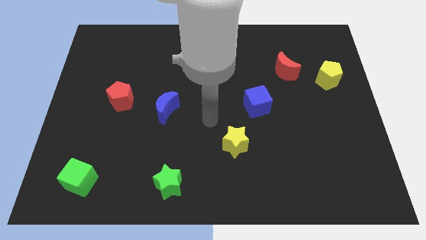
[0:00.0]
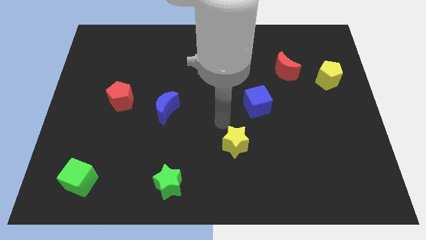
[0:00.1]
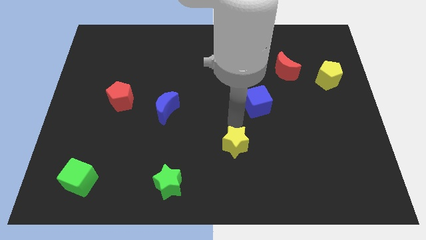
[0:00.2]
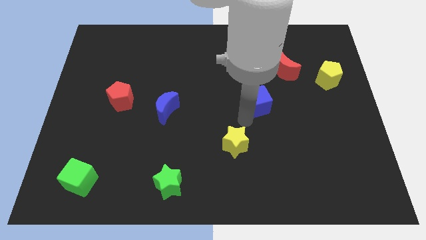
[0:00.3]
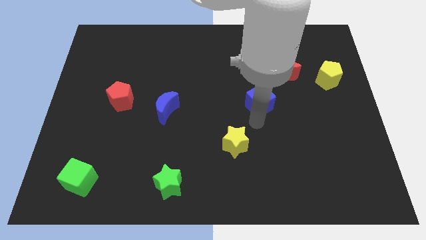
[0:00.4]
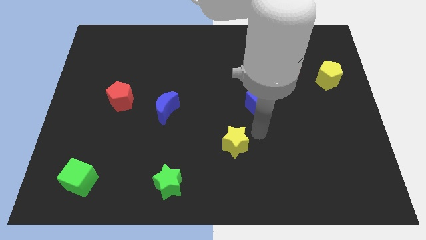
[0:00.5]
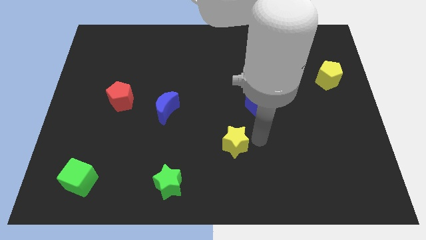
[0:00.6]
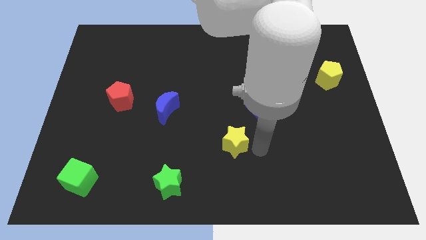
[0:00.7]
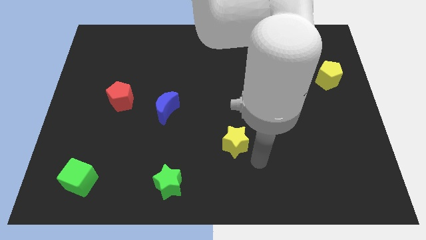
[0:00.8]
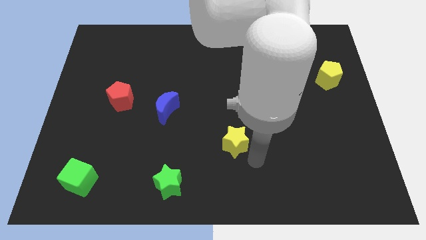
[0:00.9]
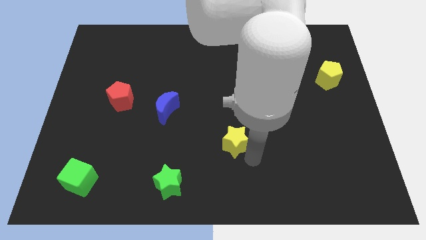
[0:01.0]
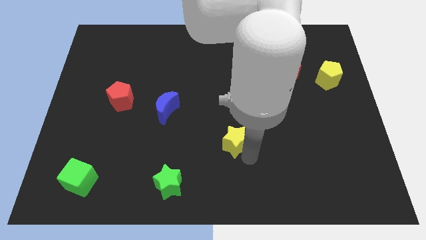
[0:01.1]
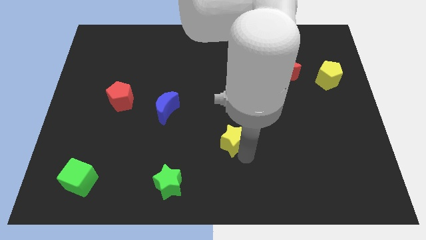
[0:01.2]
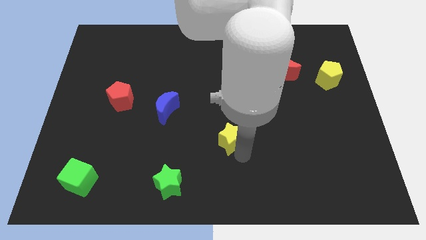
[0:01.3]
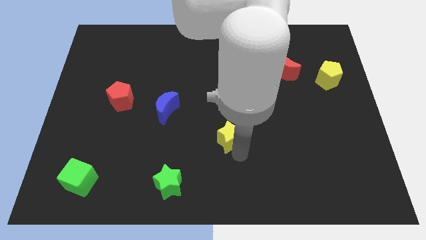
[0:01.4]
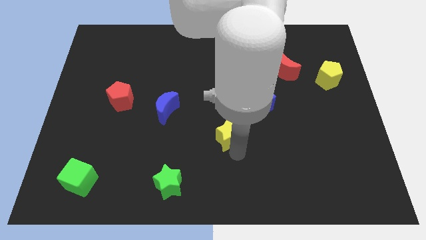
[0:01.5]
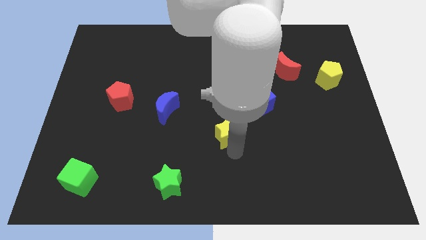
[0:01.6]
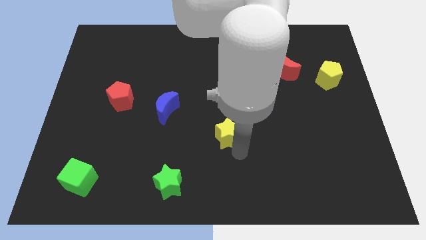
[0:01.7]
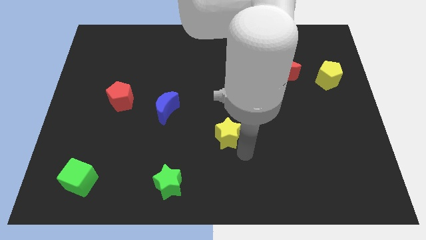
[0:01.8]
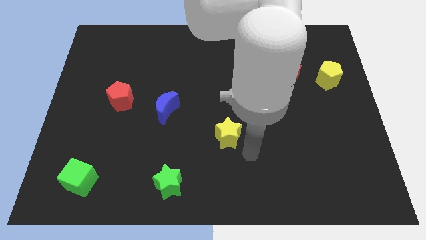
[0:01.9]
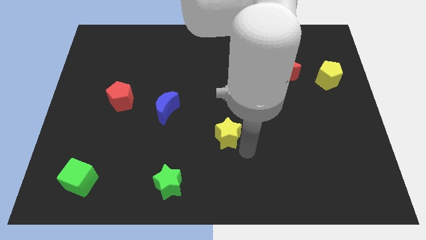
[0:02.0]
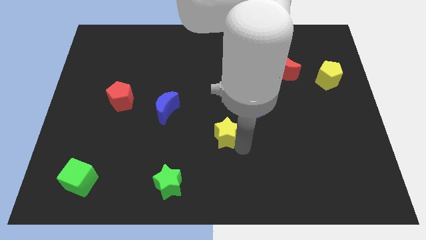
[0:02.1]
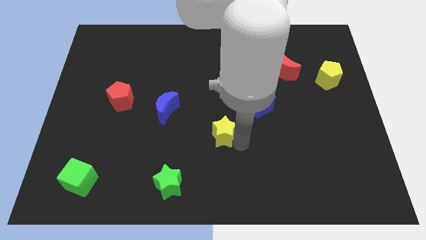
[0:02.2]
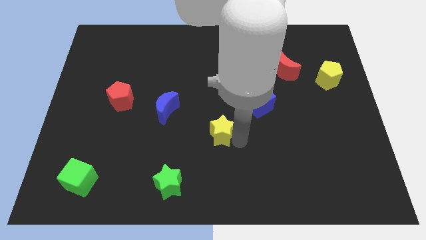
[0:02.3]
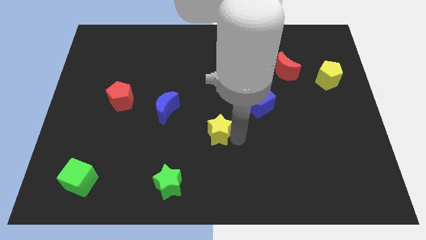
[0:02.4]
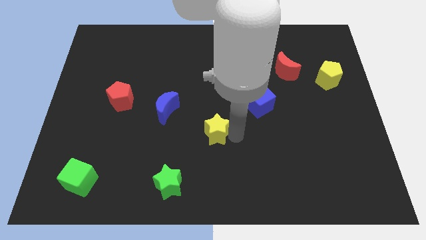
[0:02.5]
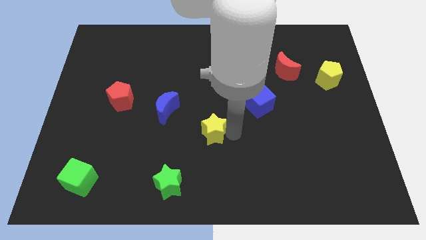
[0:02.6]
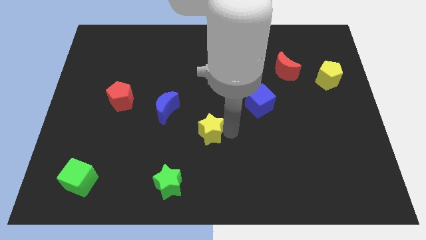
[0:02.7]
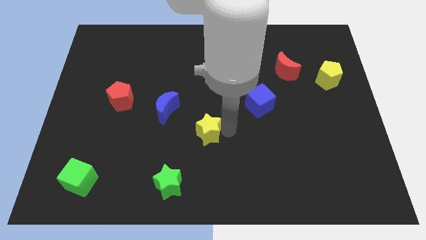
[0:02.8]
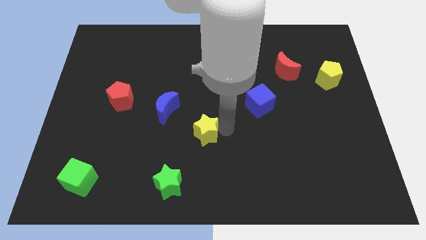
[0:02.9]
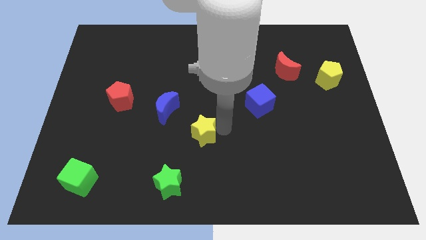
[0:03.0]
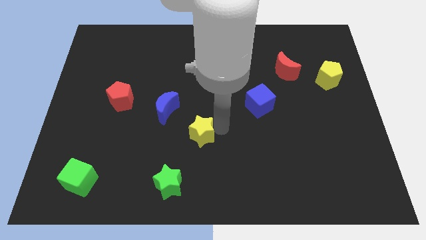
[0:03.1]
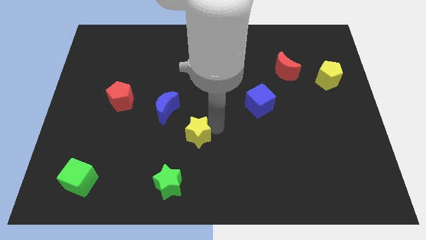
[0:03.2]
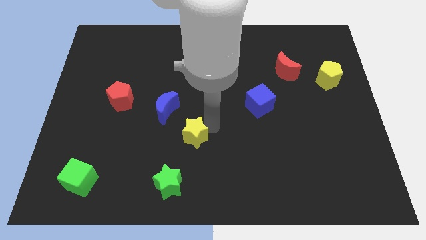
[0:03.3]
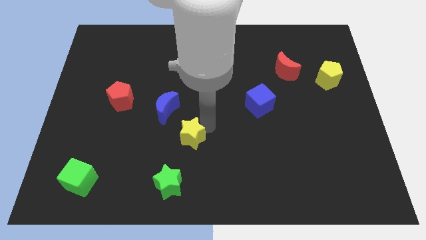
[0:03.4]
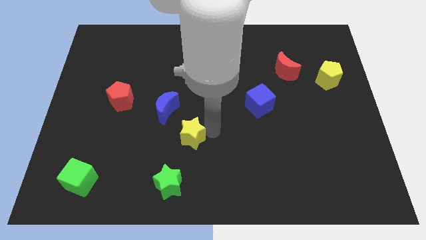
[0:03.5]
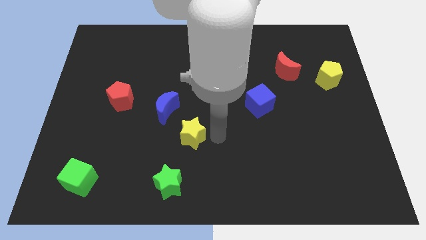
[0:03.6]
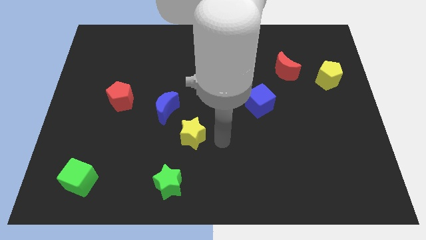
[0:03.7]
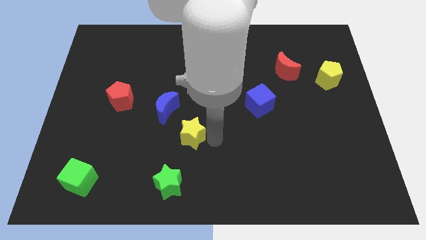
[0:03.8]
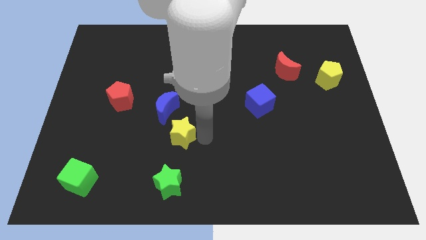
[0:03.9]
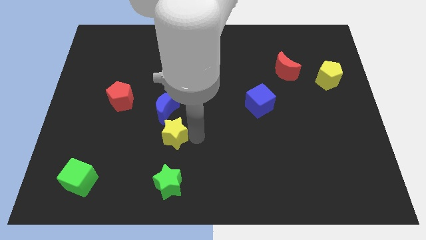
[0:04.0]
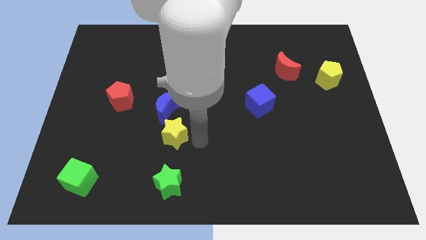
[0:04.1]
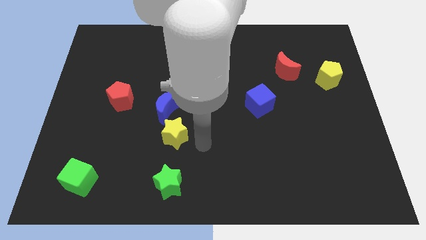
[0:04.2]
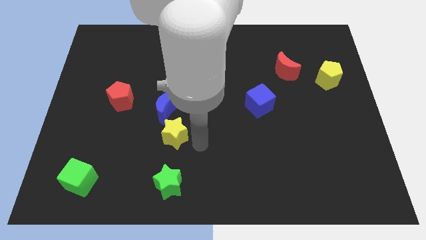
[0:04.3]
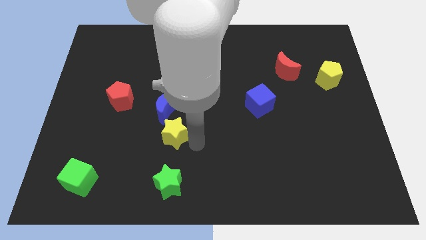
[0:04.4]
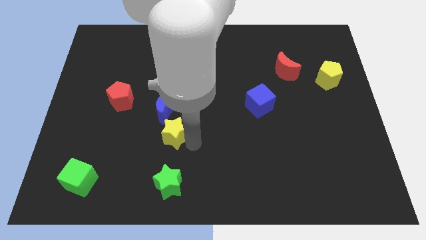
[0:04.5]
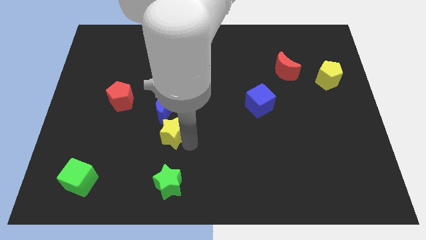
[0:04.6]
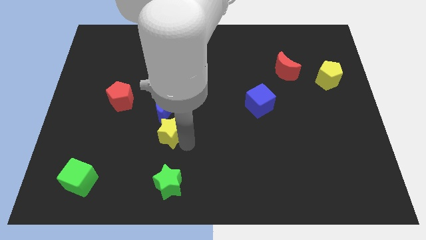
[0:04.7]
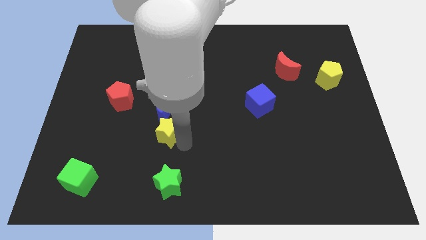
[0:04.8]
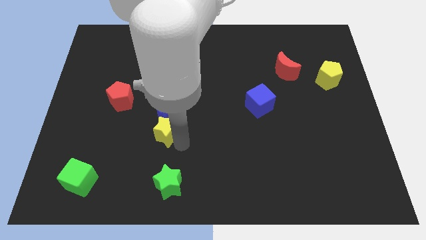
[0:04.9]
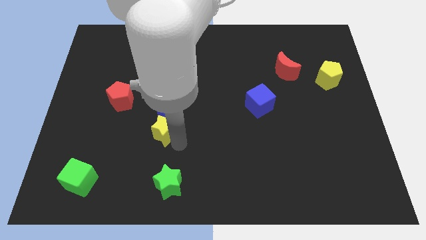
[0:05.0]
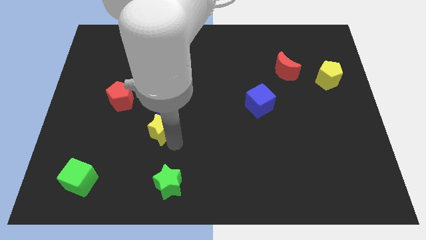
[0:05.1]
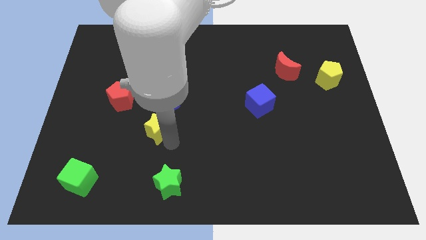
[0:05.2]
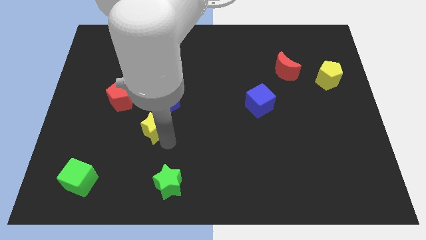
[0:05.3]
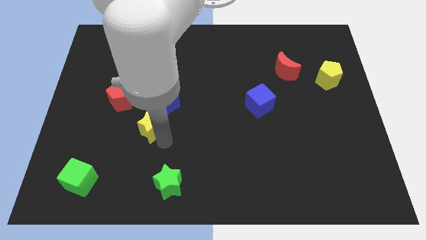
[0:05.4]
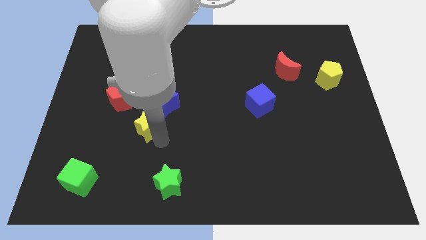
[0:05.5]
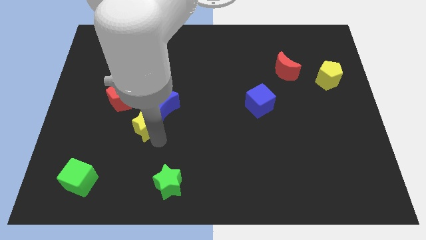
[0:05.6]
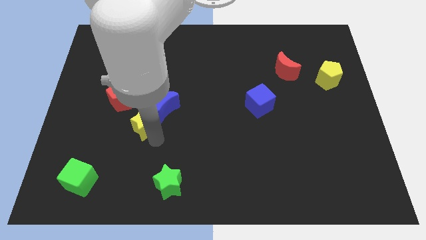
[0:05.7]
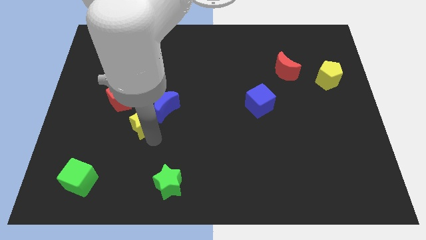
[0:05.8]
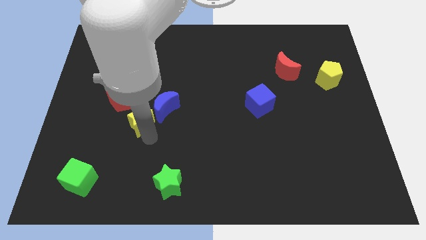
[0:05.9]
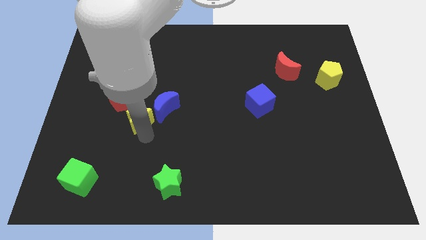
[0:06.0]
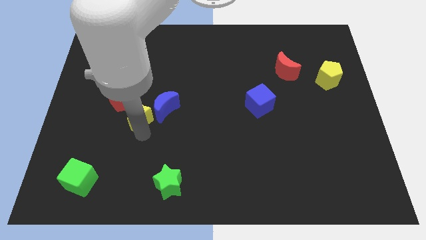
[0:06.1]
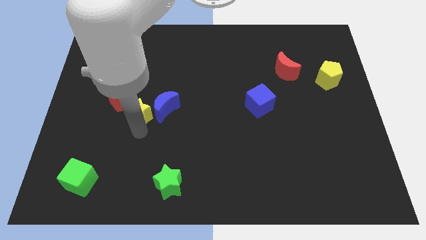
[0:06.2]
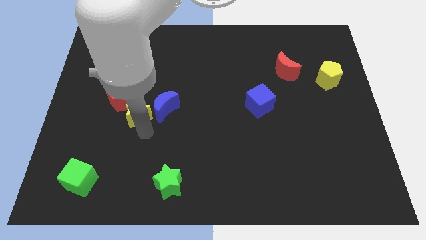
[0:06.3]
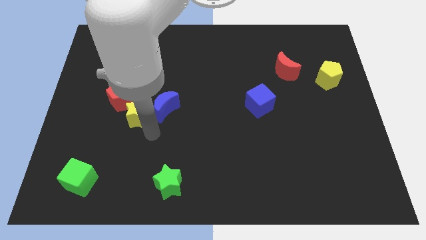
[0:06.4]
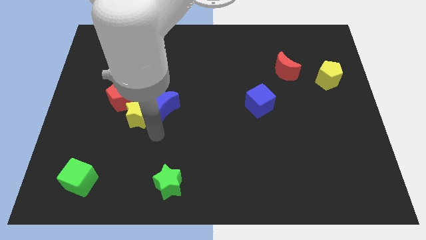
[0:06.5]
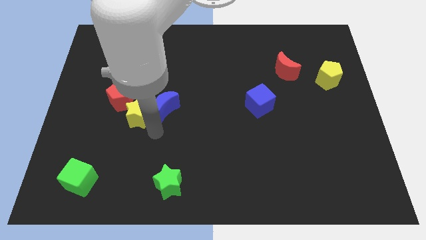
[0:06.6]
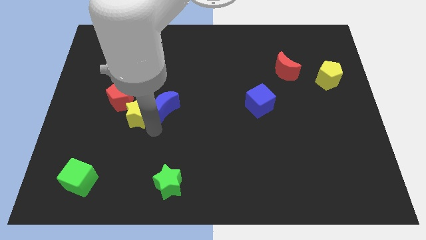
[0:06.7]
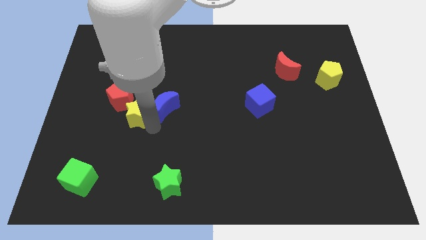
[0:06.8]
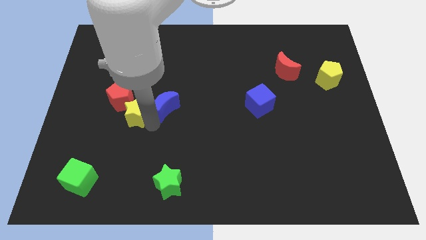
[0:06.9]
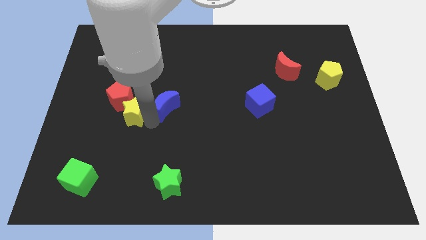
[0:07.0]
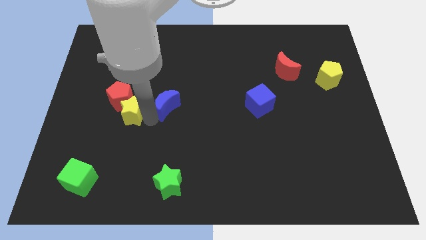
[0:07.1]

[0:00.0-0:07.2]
put the yellow star towards the red pentagon

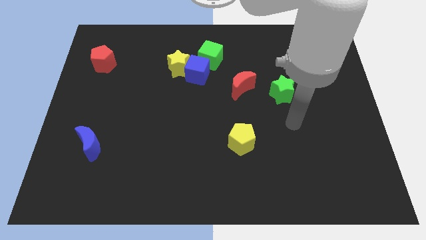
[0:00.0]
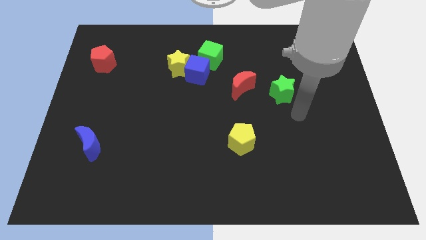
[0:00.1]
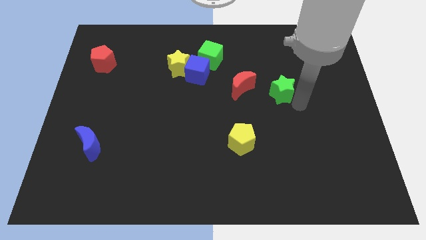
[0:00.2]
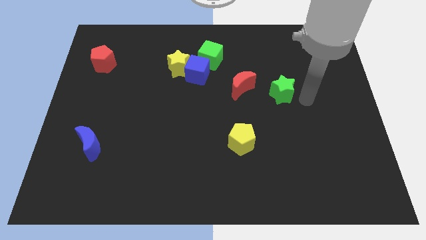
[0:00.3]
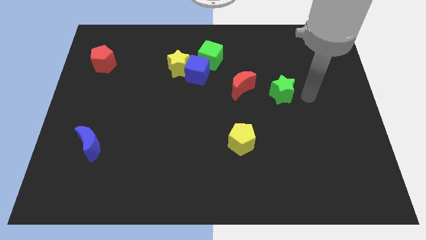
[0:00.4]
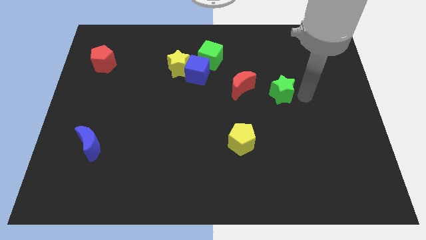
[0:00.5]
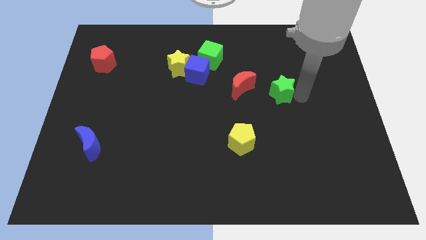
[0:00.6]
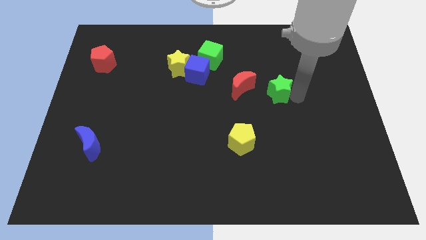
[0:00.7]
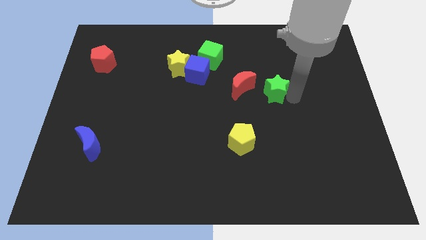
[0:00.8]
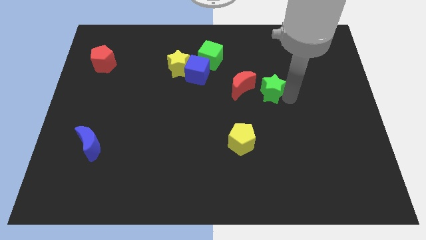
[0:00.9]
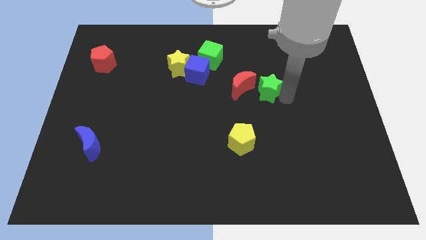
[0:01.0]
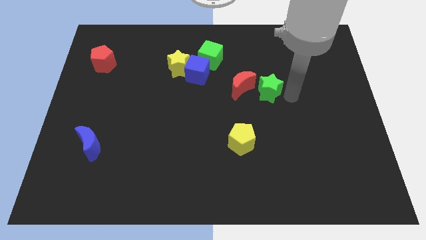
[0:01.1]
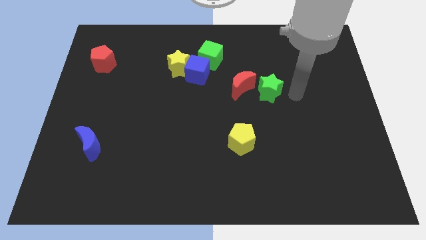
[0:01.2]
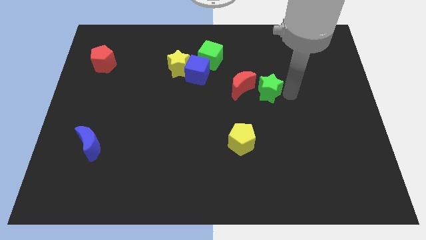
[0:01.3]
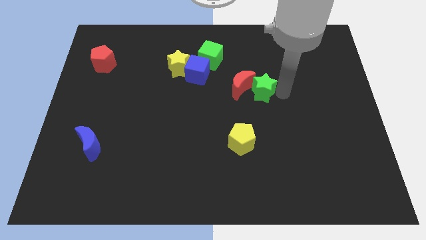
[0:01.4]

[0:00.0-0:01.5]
slide the green star close to the red moon
